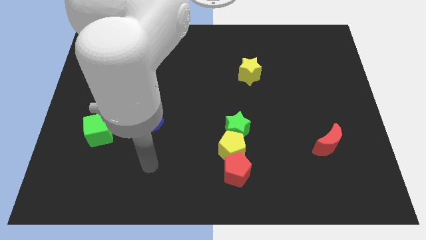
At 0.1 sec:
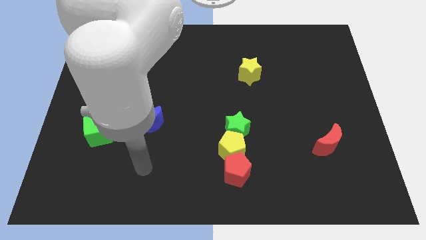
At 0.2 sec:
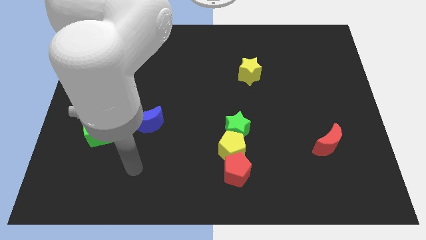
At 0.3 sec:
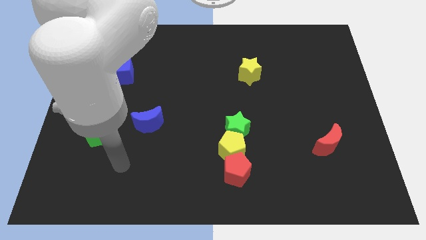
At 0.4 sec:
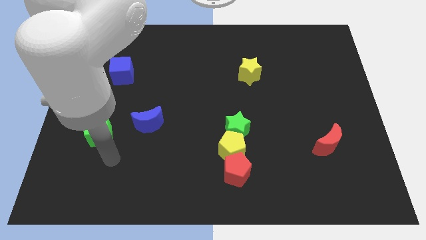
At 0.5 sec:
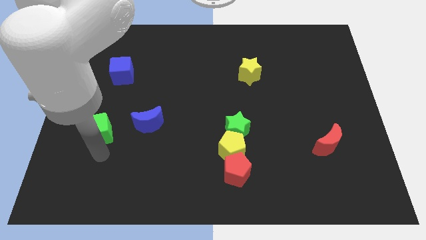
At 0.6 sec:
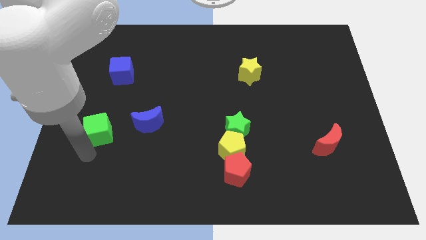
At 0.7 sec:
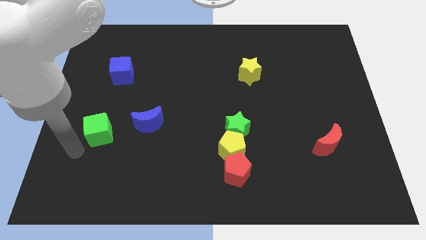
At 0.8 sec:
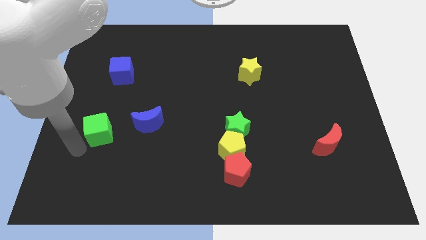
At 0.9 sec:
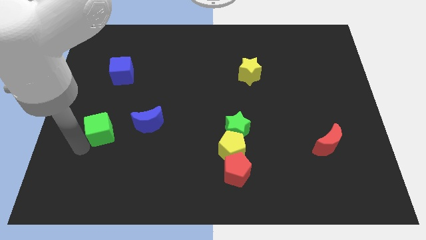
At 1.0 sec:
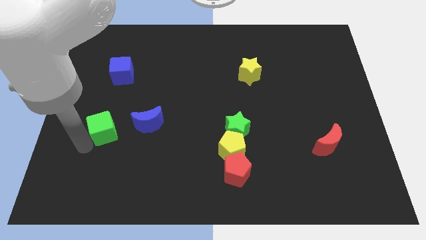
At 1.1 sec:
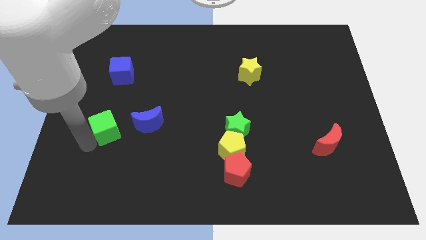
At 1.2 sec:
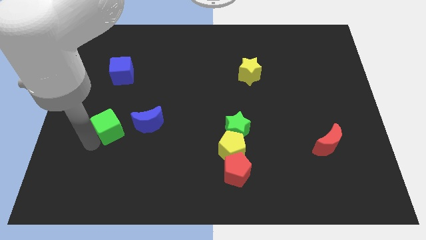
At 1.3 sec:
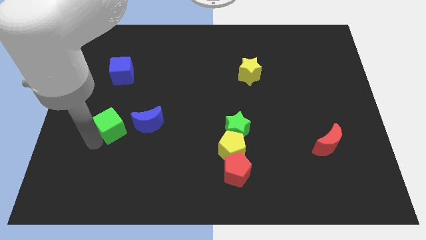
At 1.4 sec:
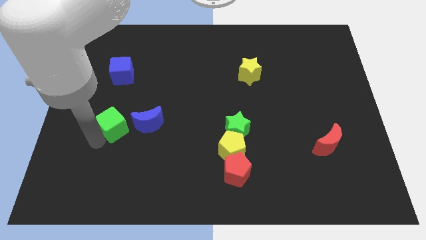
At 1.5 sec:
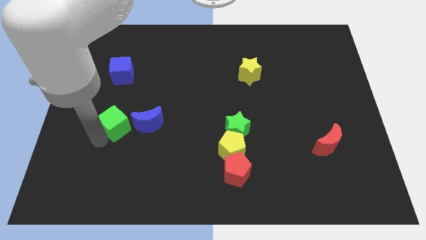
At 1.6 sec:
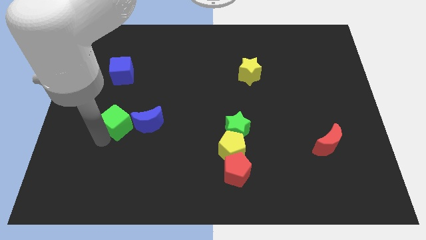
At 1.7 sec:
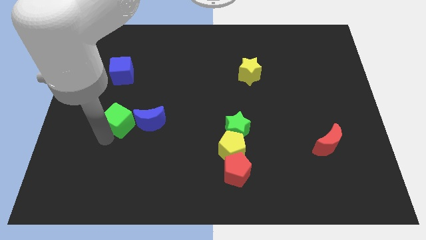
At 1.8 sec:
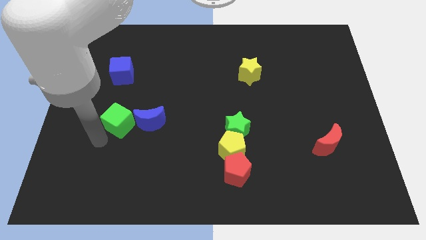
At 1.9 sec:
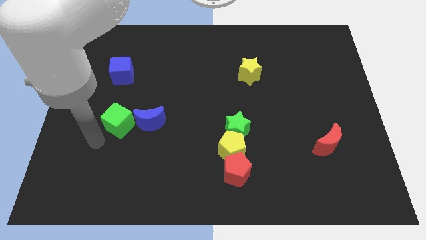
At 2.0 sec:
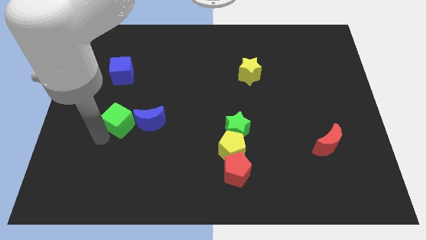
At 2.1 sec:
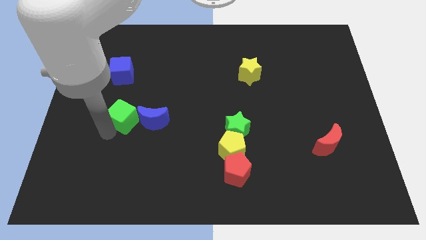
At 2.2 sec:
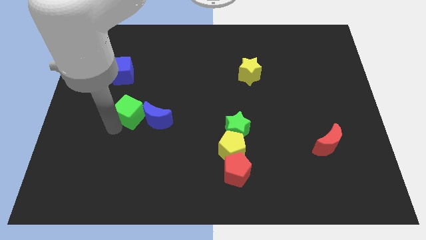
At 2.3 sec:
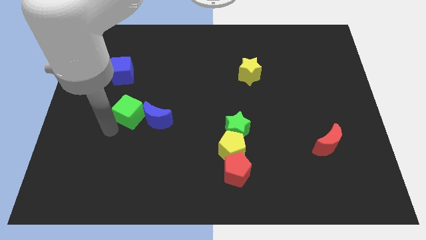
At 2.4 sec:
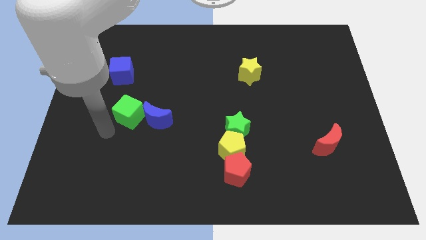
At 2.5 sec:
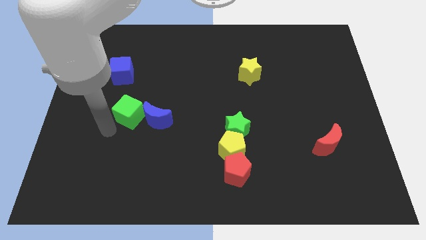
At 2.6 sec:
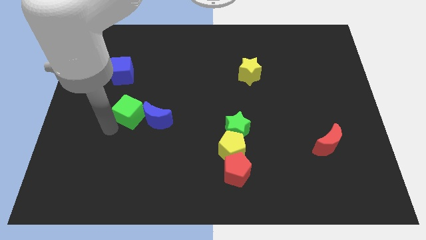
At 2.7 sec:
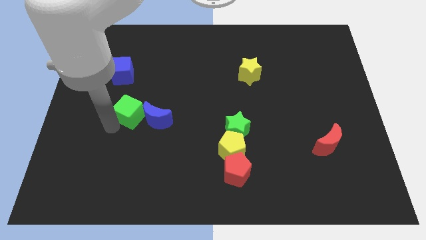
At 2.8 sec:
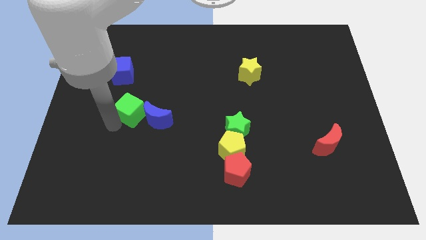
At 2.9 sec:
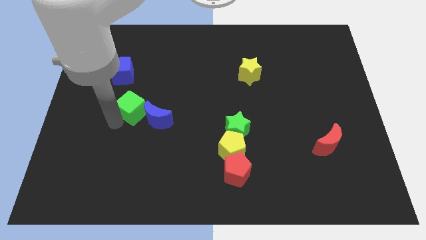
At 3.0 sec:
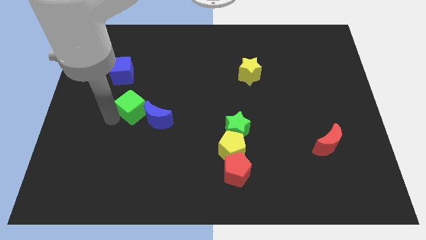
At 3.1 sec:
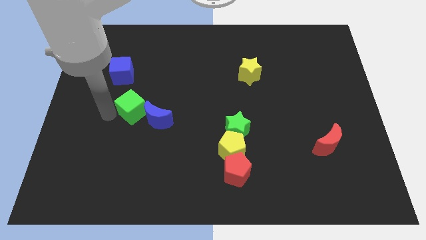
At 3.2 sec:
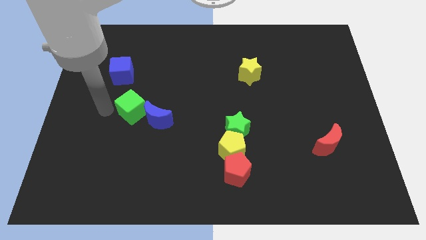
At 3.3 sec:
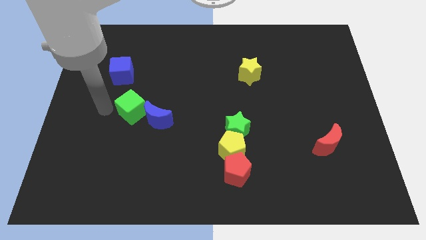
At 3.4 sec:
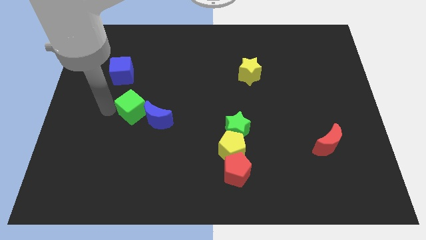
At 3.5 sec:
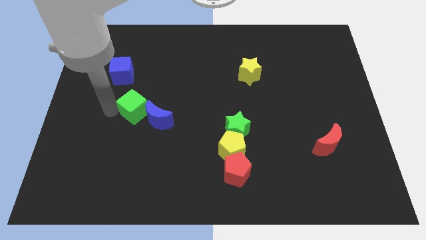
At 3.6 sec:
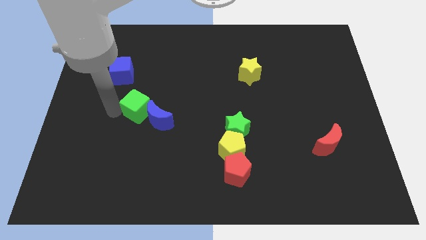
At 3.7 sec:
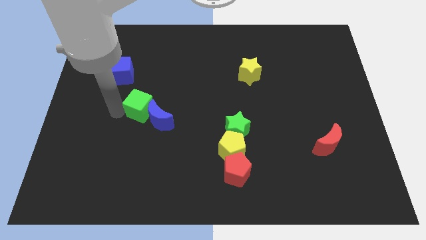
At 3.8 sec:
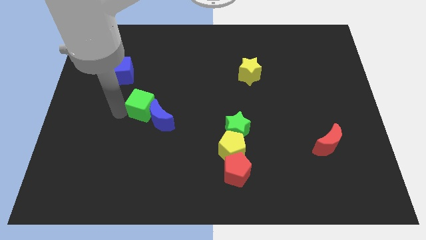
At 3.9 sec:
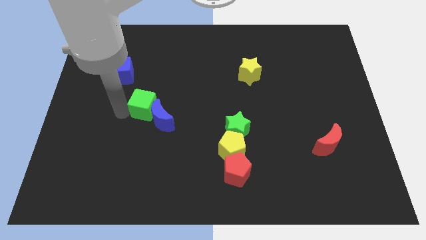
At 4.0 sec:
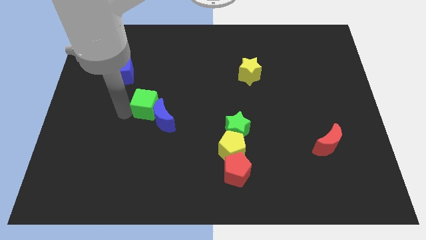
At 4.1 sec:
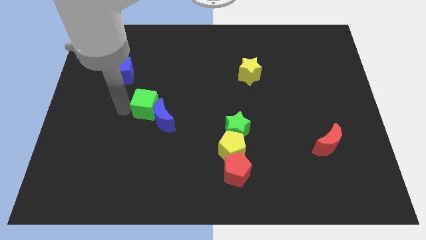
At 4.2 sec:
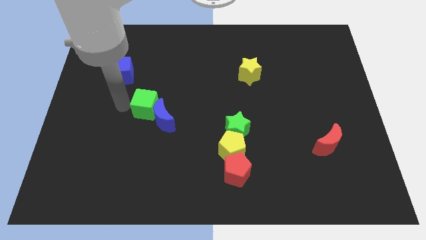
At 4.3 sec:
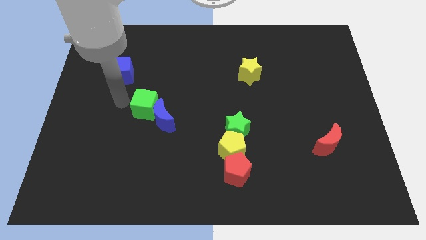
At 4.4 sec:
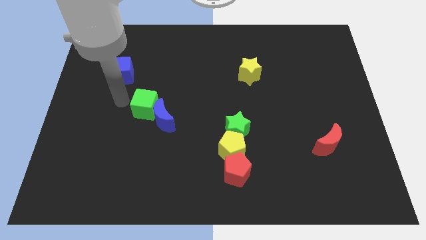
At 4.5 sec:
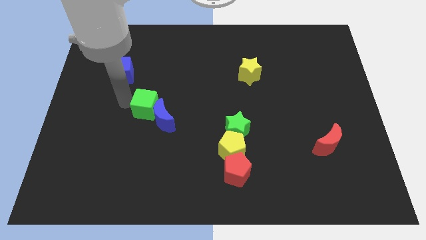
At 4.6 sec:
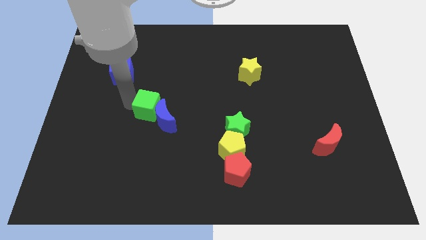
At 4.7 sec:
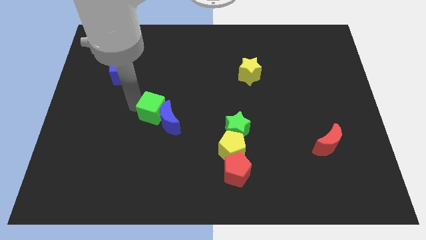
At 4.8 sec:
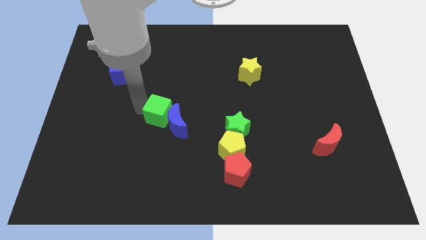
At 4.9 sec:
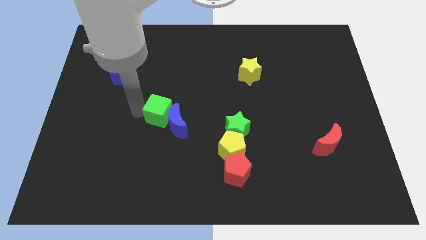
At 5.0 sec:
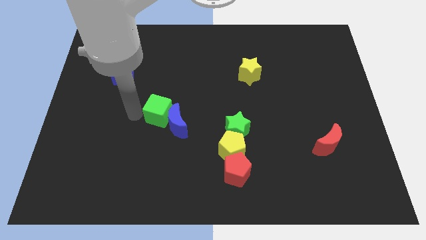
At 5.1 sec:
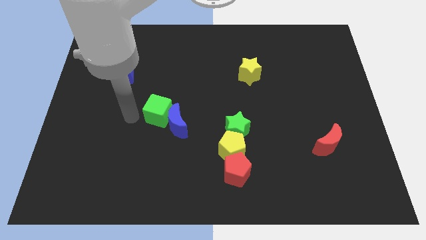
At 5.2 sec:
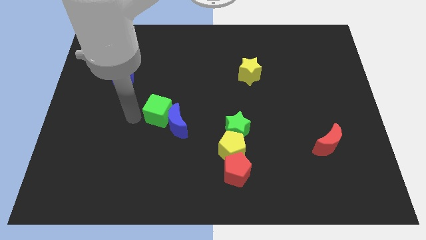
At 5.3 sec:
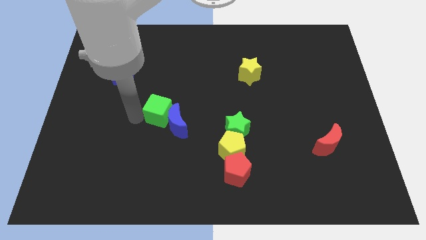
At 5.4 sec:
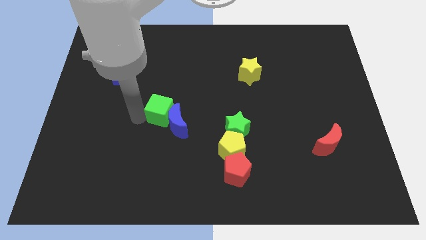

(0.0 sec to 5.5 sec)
push the green cube to the center of the board

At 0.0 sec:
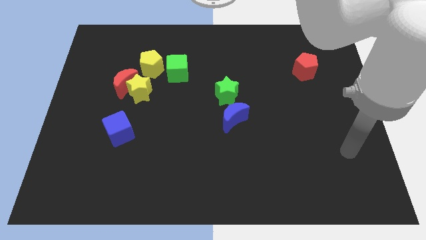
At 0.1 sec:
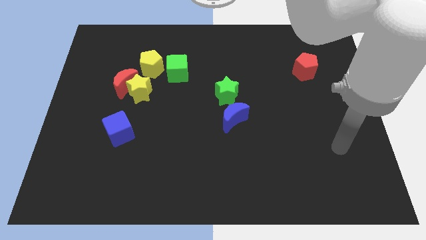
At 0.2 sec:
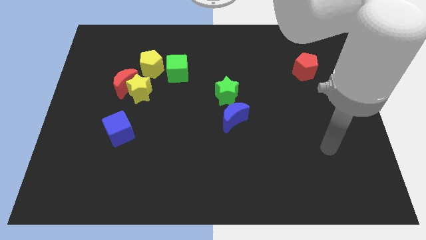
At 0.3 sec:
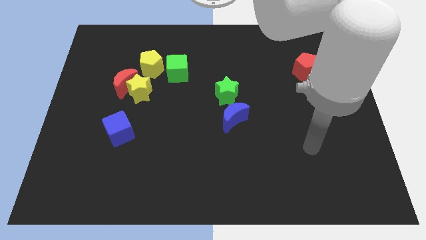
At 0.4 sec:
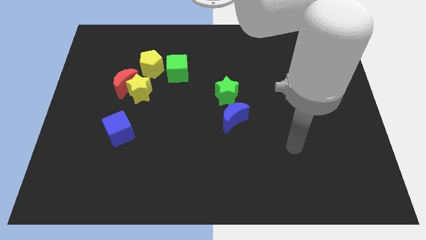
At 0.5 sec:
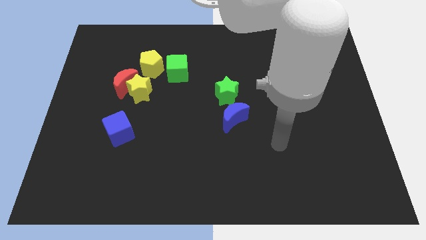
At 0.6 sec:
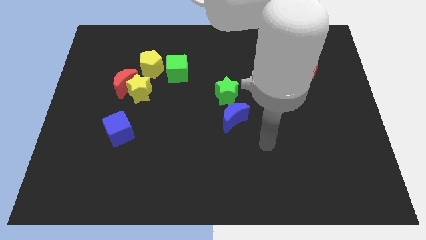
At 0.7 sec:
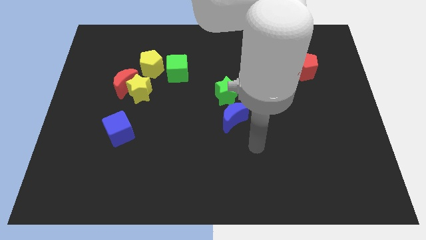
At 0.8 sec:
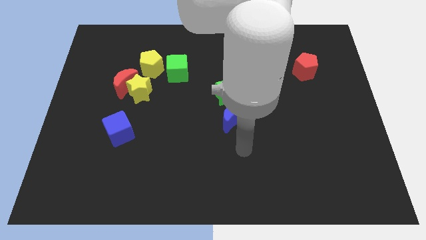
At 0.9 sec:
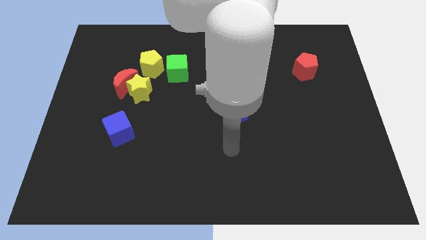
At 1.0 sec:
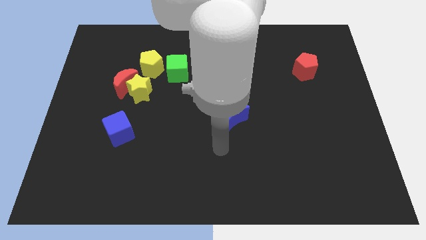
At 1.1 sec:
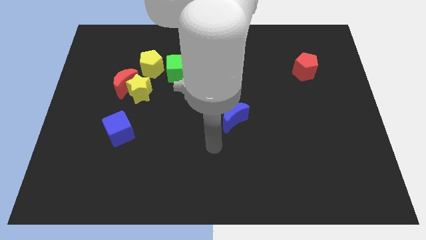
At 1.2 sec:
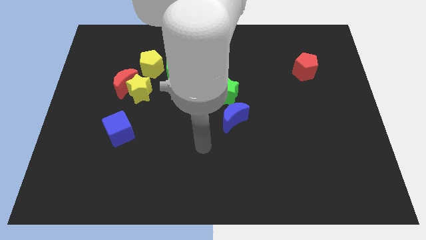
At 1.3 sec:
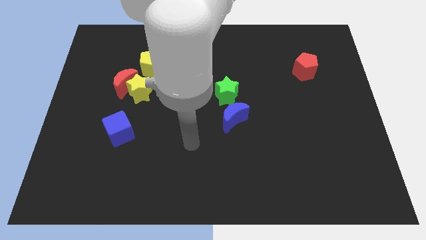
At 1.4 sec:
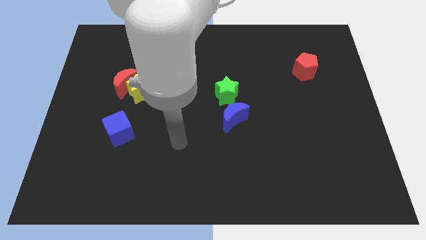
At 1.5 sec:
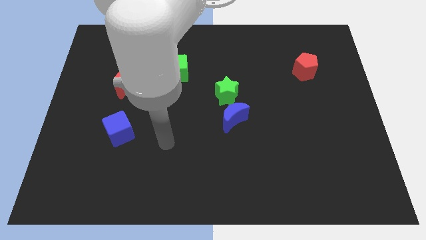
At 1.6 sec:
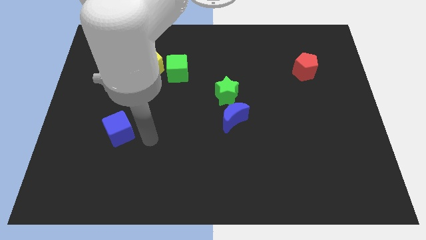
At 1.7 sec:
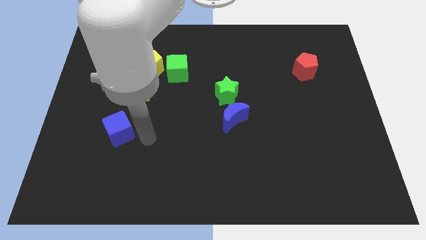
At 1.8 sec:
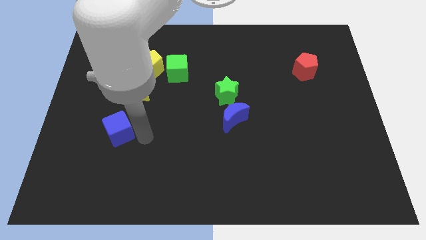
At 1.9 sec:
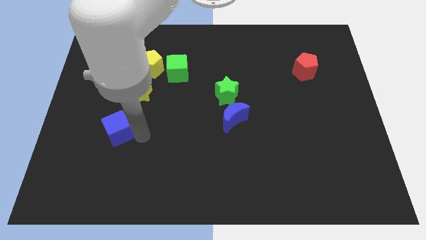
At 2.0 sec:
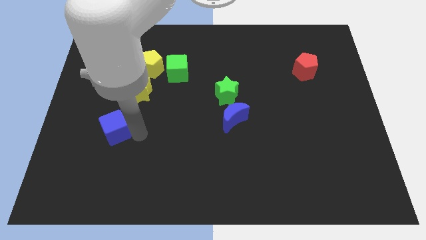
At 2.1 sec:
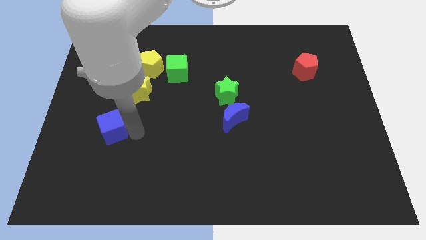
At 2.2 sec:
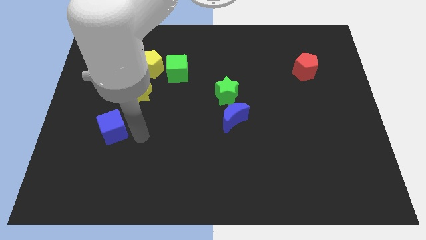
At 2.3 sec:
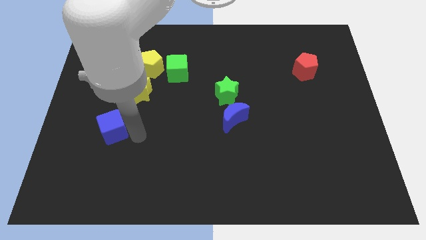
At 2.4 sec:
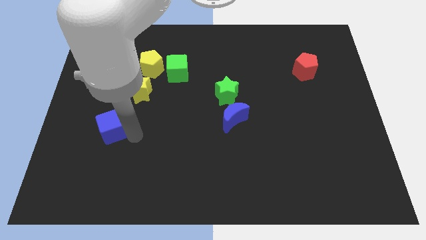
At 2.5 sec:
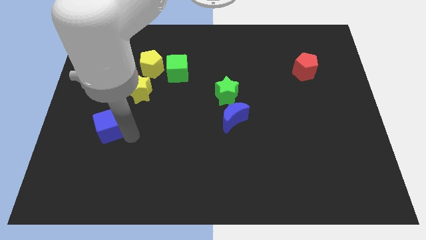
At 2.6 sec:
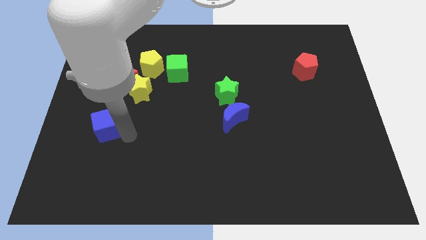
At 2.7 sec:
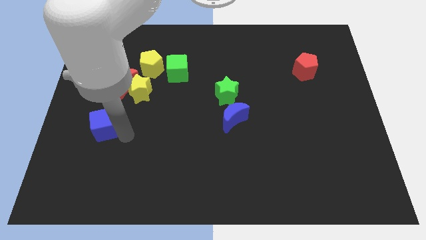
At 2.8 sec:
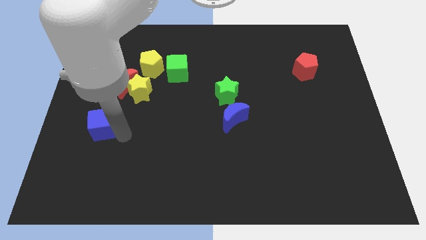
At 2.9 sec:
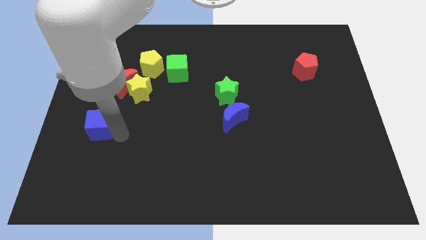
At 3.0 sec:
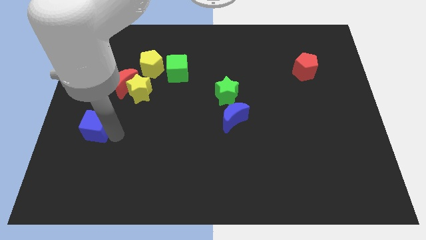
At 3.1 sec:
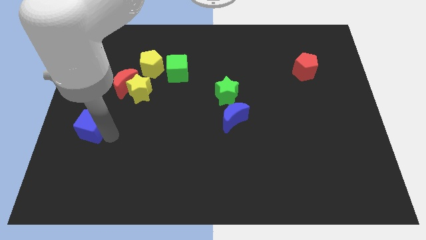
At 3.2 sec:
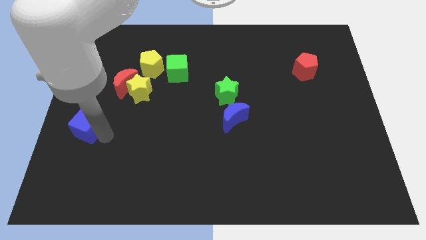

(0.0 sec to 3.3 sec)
put the blue cube to the left side
